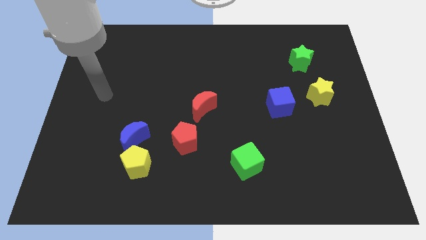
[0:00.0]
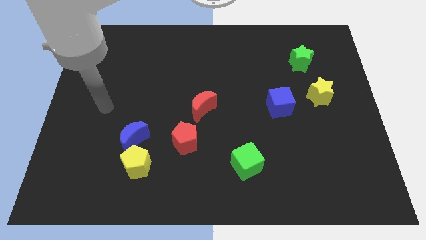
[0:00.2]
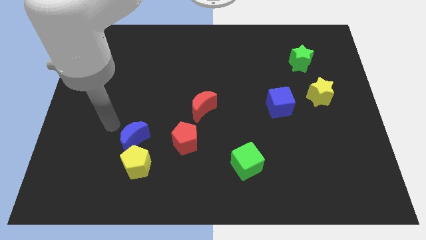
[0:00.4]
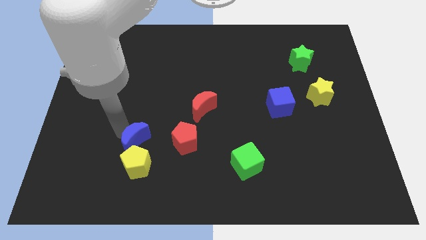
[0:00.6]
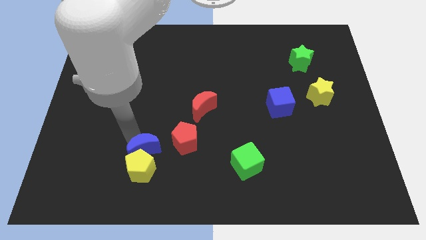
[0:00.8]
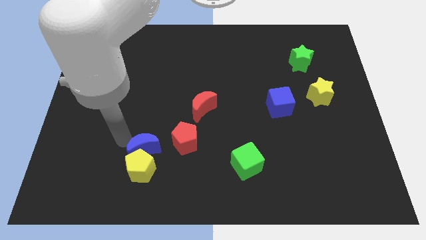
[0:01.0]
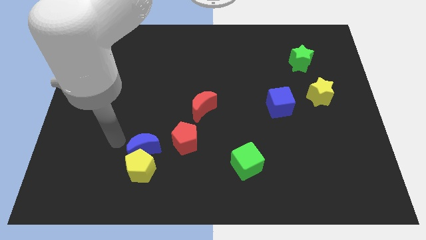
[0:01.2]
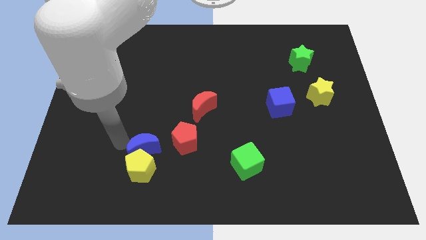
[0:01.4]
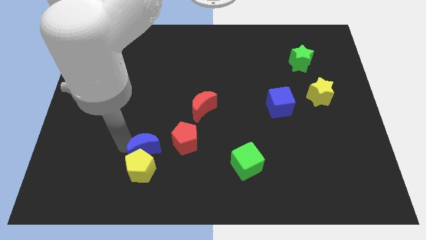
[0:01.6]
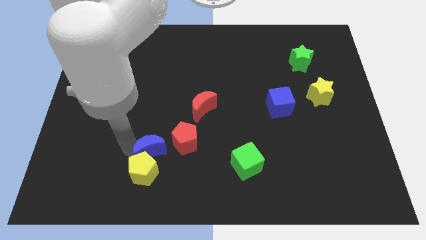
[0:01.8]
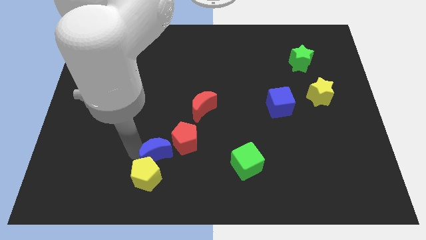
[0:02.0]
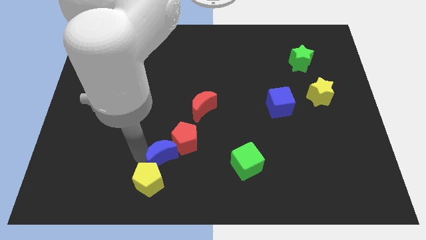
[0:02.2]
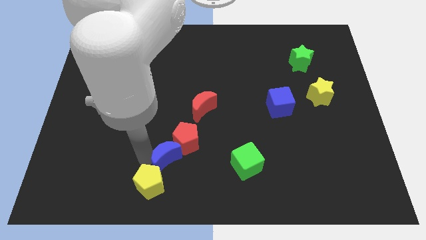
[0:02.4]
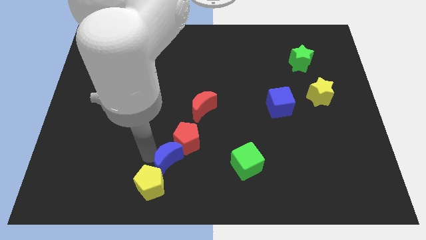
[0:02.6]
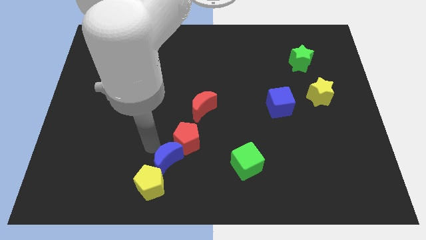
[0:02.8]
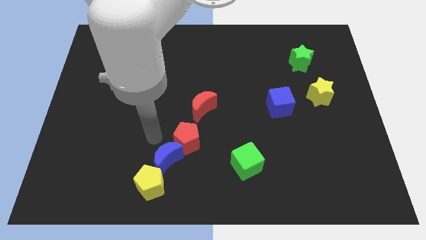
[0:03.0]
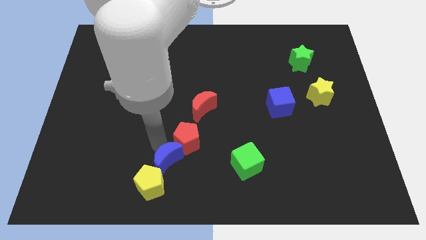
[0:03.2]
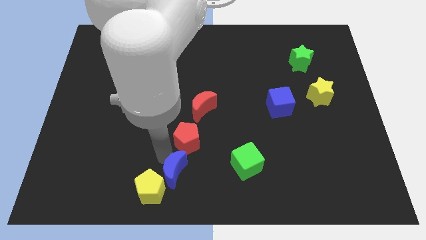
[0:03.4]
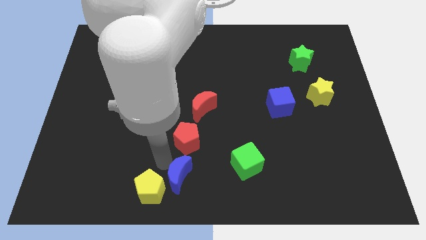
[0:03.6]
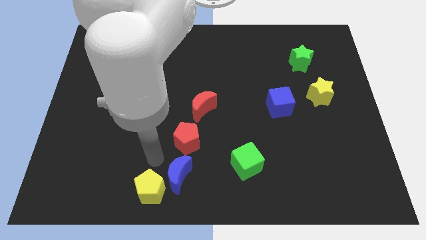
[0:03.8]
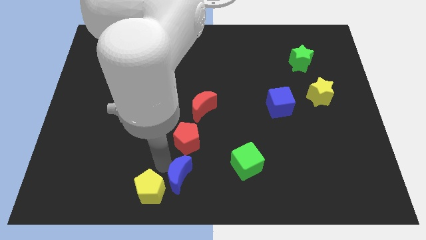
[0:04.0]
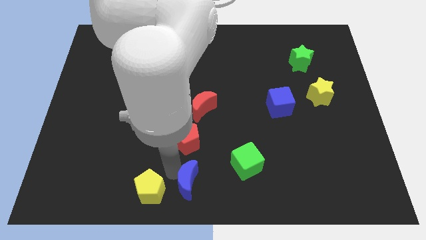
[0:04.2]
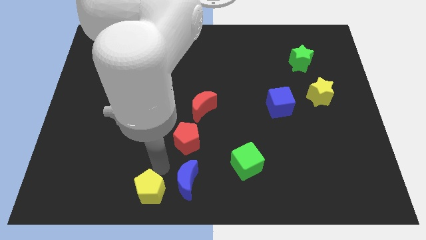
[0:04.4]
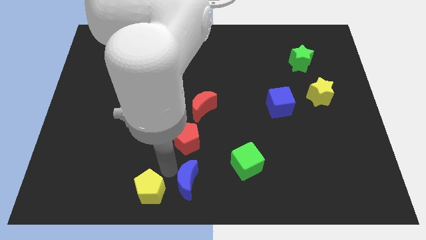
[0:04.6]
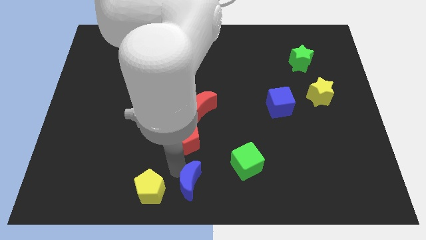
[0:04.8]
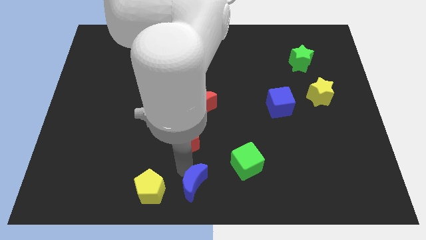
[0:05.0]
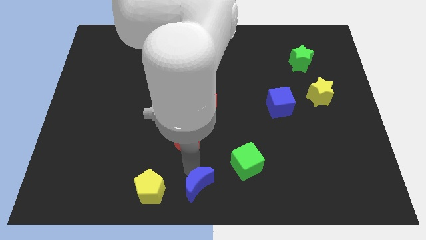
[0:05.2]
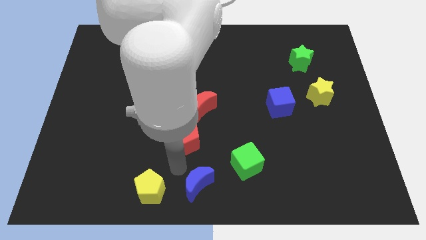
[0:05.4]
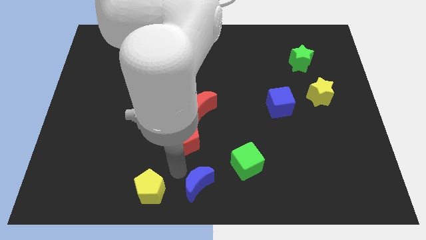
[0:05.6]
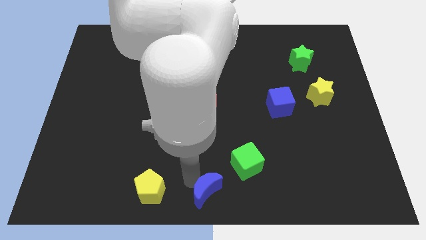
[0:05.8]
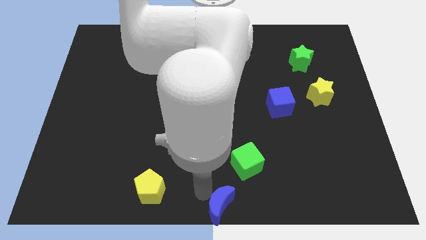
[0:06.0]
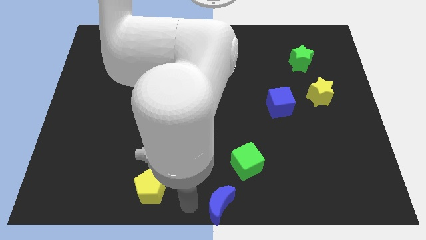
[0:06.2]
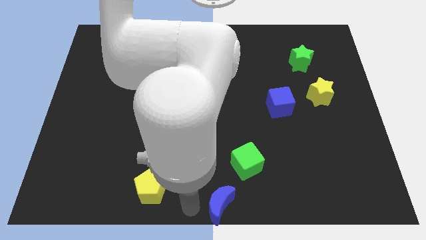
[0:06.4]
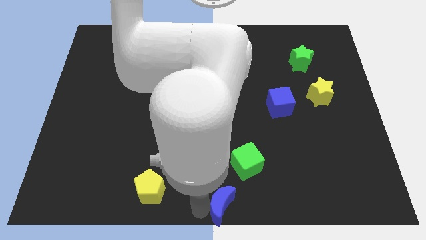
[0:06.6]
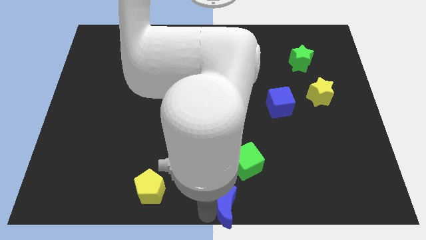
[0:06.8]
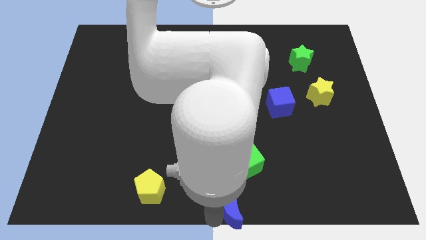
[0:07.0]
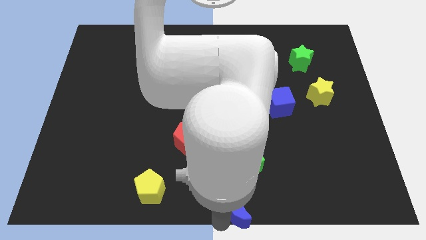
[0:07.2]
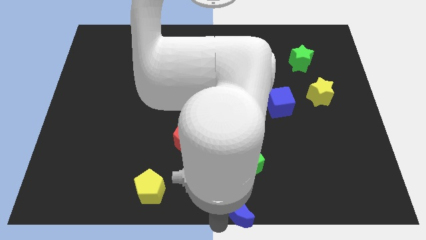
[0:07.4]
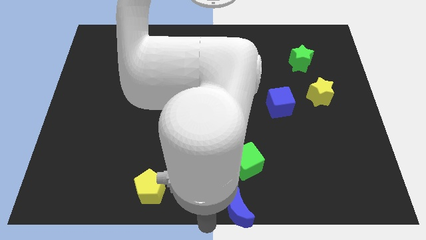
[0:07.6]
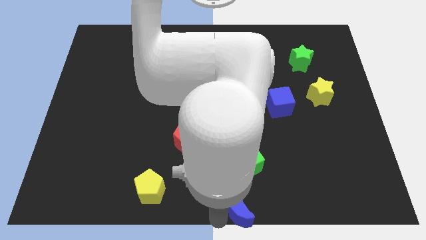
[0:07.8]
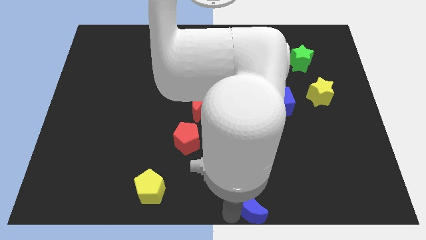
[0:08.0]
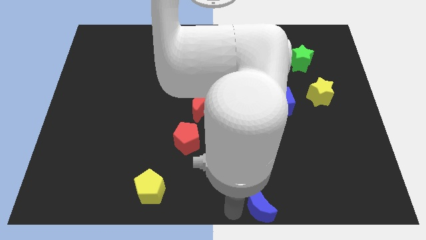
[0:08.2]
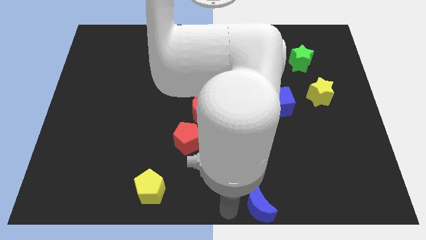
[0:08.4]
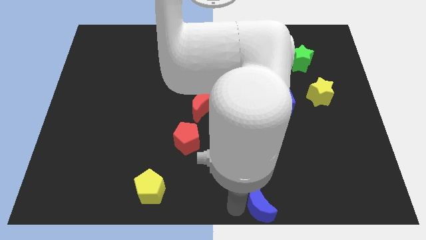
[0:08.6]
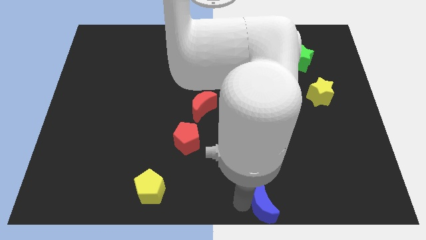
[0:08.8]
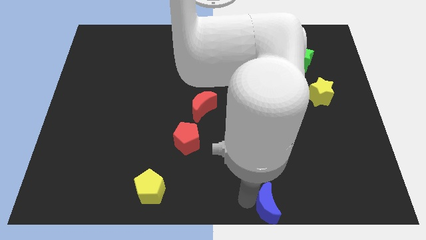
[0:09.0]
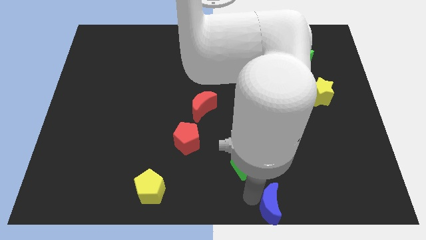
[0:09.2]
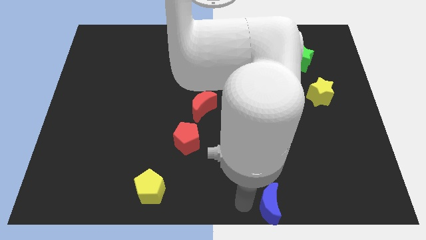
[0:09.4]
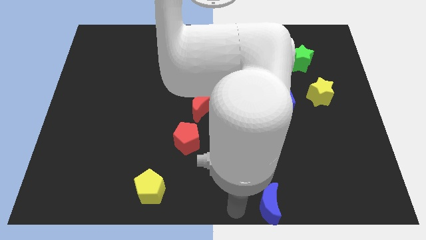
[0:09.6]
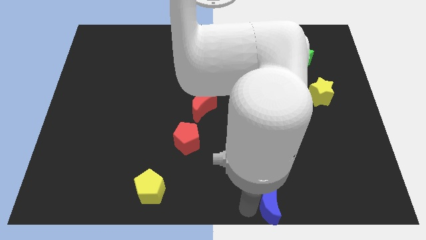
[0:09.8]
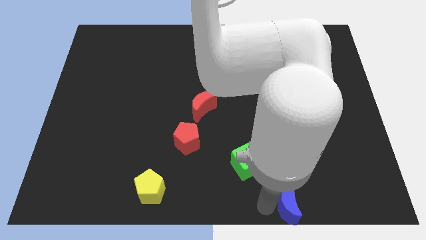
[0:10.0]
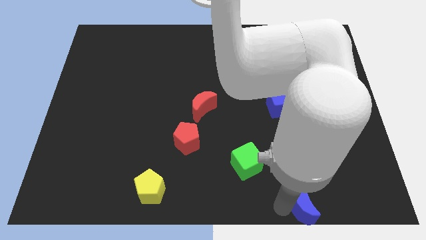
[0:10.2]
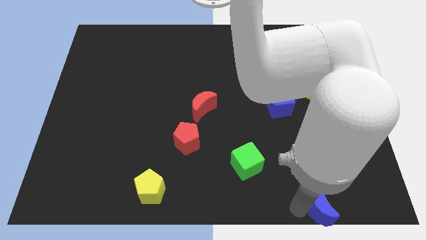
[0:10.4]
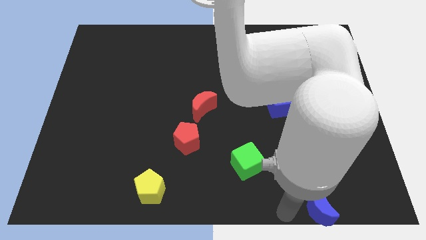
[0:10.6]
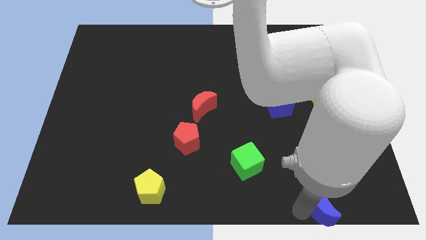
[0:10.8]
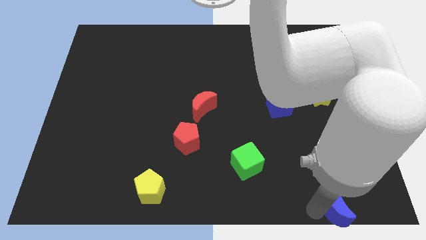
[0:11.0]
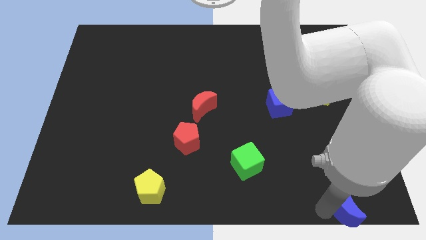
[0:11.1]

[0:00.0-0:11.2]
put the blue moon to the bottom right corner

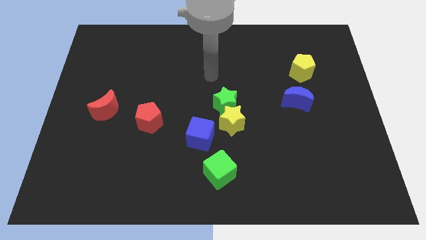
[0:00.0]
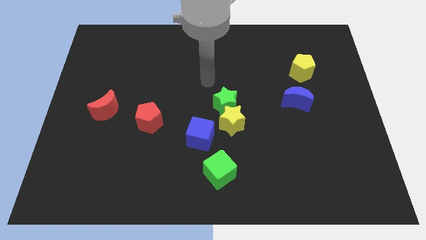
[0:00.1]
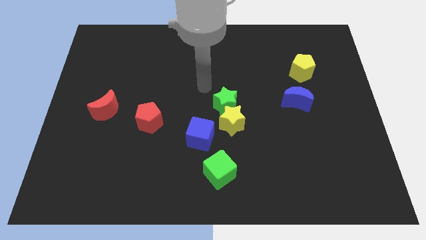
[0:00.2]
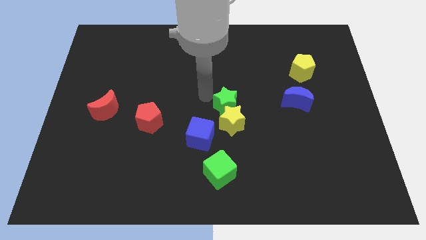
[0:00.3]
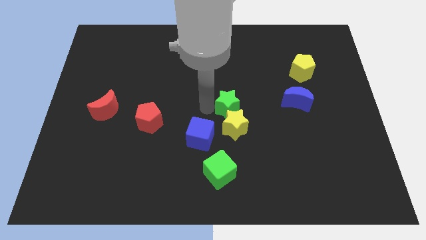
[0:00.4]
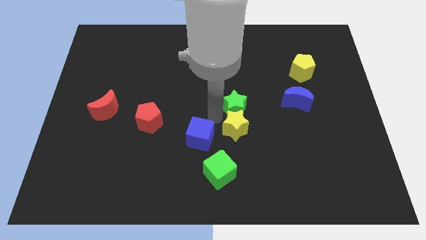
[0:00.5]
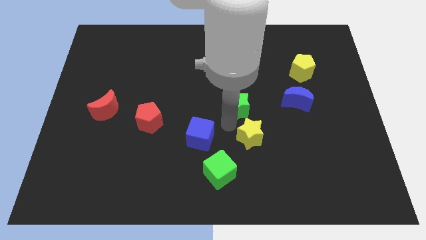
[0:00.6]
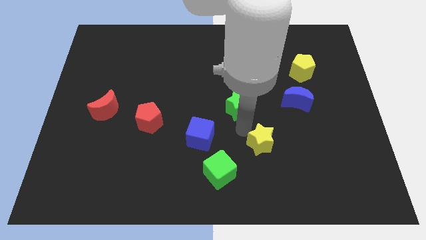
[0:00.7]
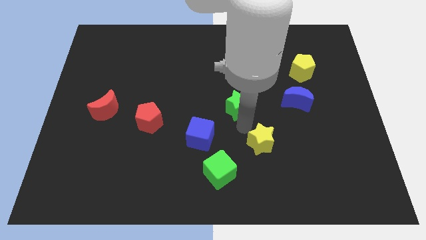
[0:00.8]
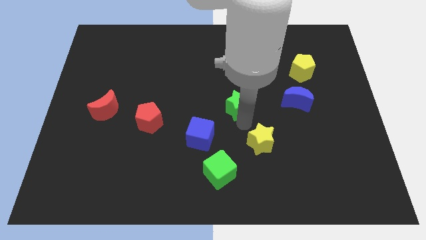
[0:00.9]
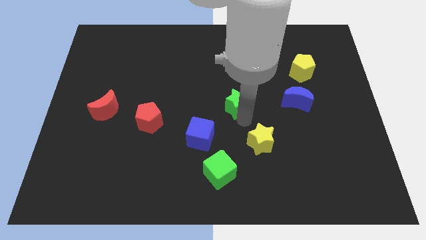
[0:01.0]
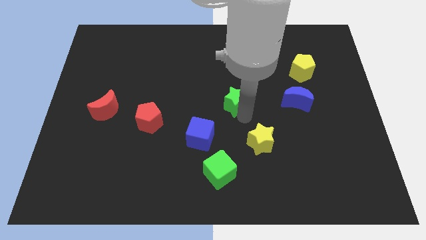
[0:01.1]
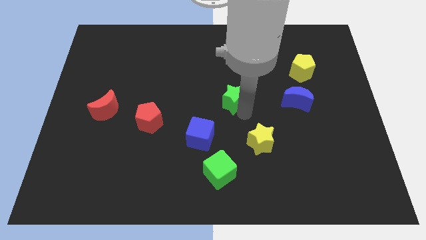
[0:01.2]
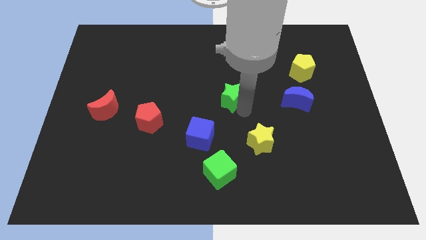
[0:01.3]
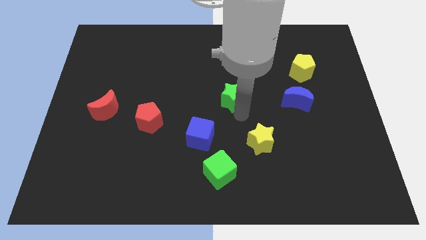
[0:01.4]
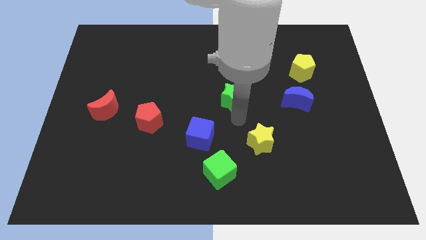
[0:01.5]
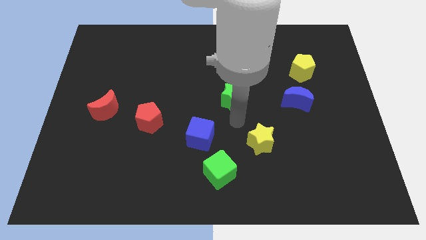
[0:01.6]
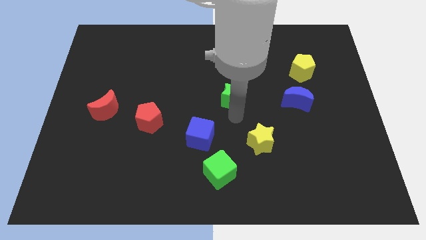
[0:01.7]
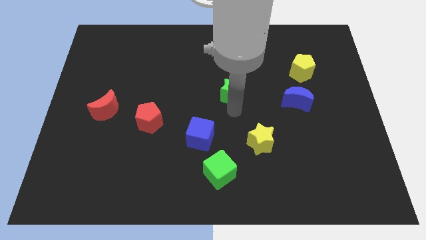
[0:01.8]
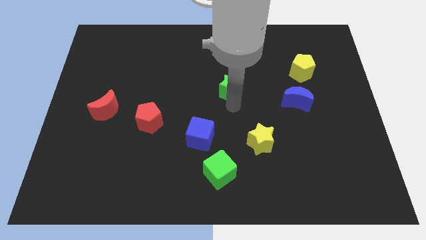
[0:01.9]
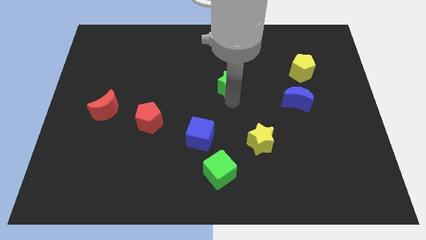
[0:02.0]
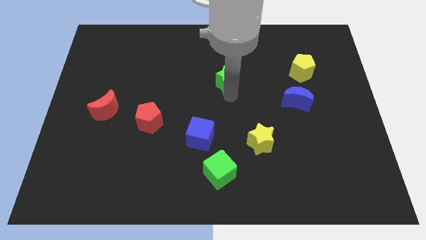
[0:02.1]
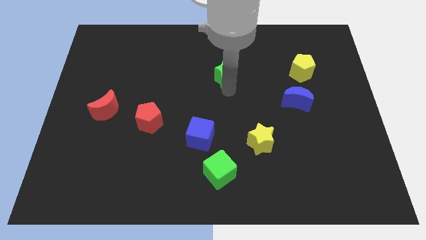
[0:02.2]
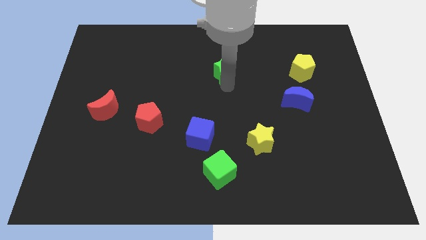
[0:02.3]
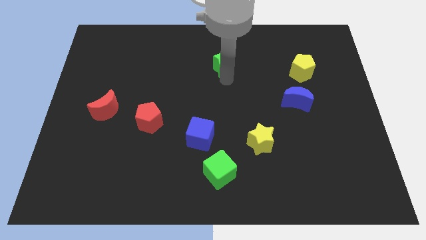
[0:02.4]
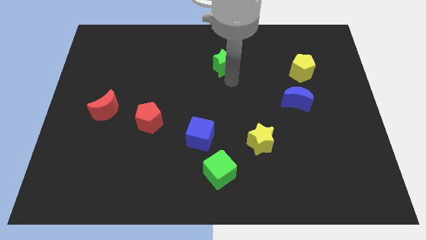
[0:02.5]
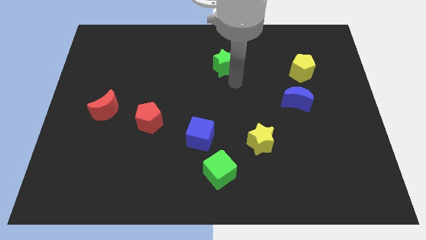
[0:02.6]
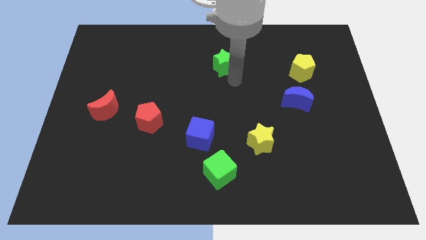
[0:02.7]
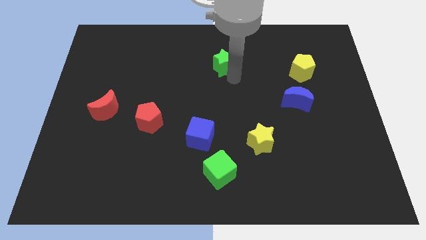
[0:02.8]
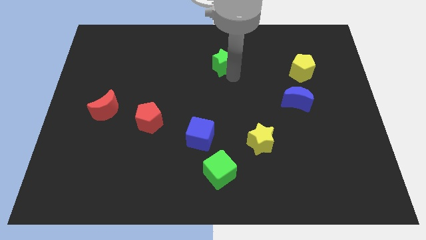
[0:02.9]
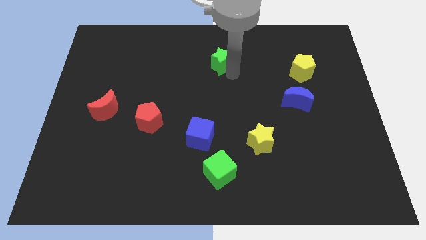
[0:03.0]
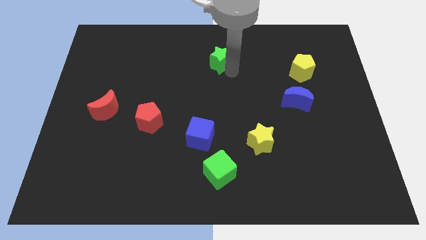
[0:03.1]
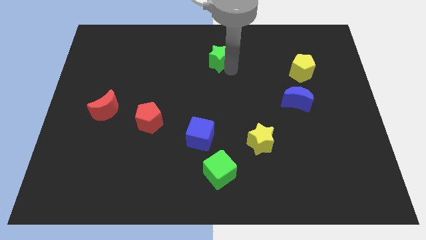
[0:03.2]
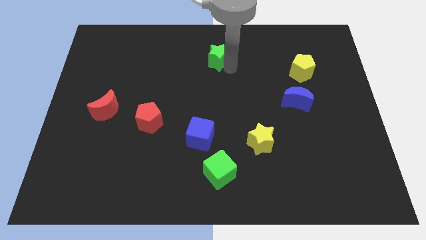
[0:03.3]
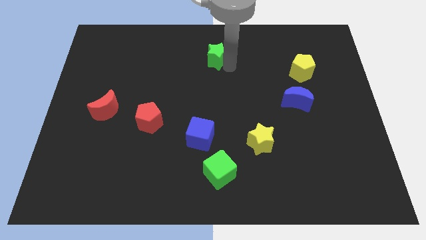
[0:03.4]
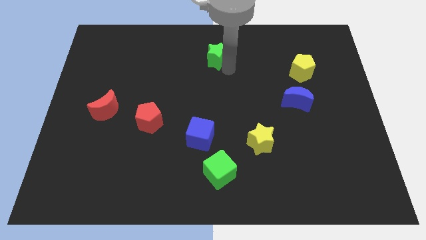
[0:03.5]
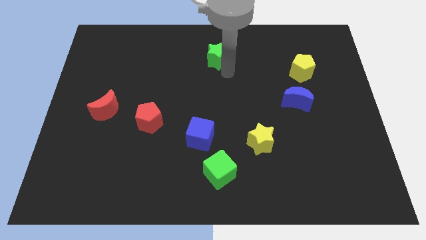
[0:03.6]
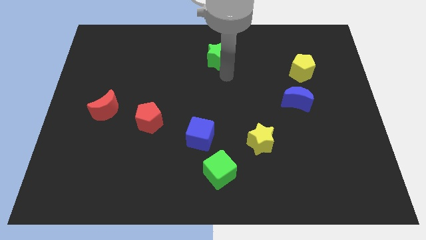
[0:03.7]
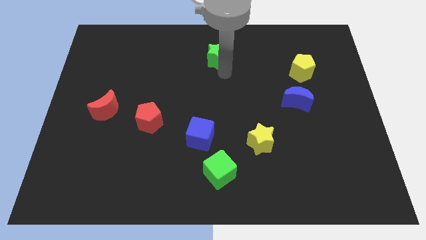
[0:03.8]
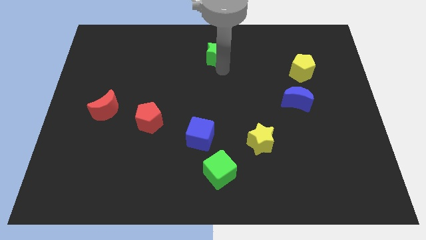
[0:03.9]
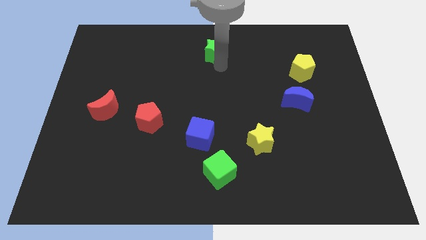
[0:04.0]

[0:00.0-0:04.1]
move the green star to the towards your base
